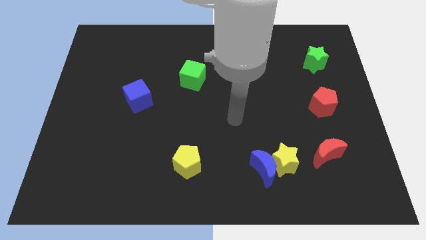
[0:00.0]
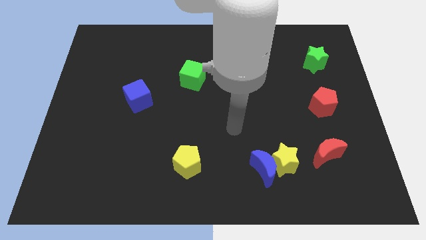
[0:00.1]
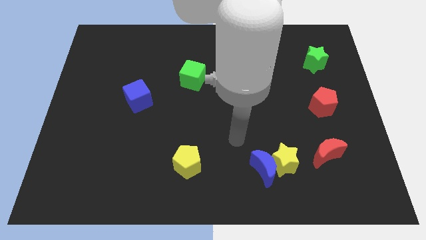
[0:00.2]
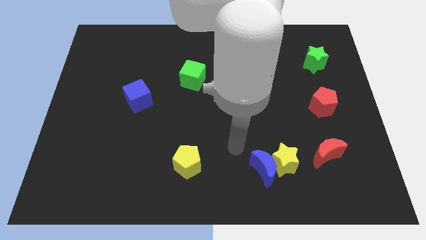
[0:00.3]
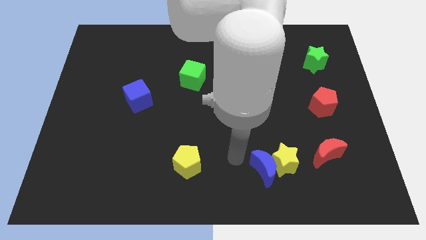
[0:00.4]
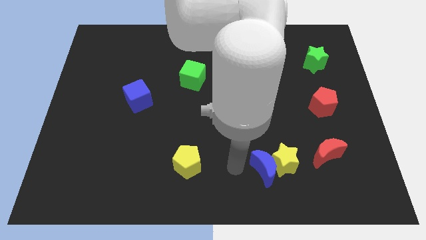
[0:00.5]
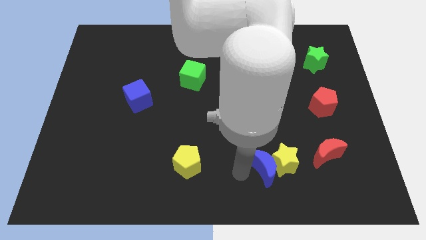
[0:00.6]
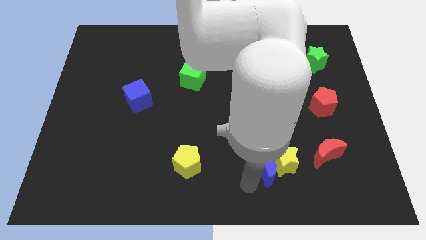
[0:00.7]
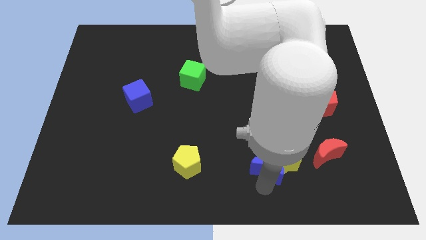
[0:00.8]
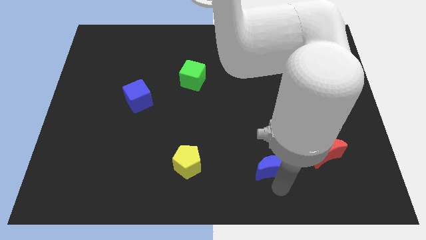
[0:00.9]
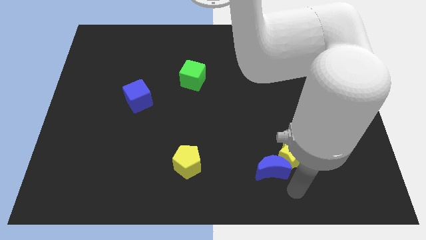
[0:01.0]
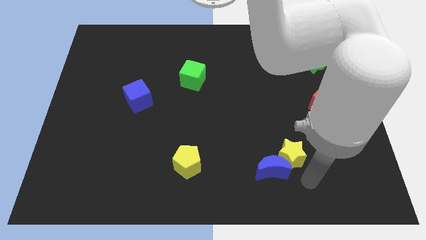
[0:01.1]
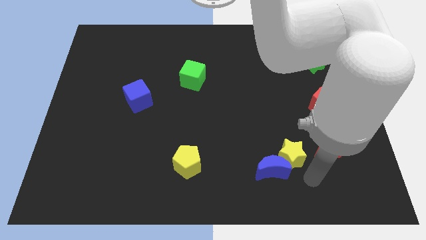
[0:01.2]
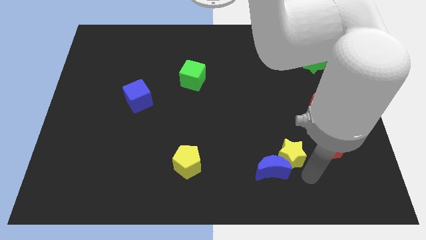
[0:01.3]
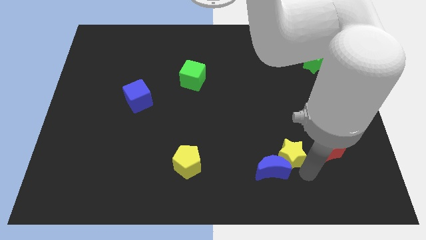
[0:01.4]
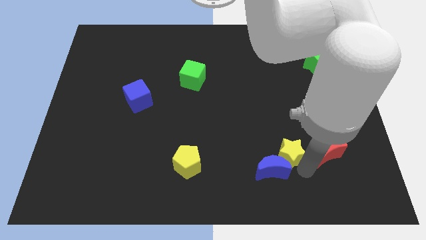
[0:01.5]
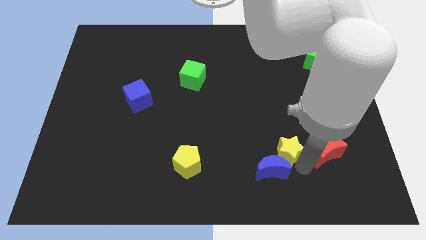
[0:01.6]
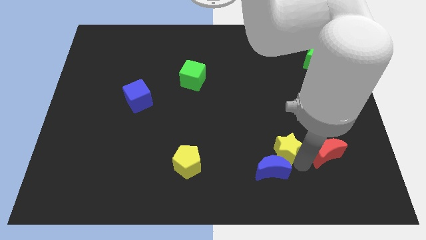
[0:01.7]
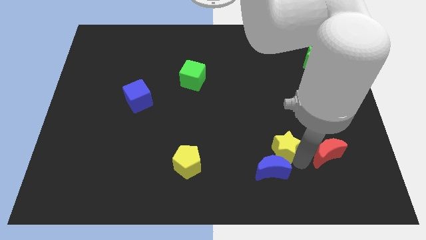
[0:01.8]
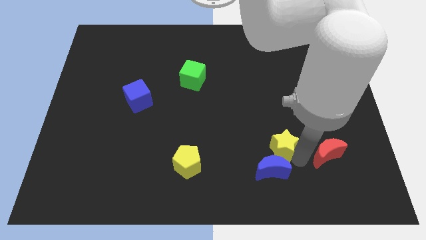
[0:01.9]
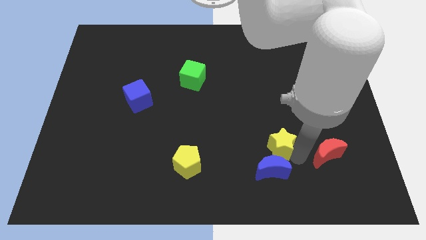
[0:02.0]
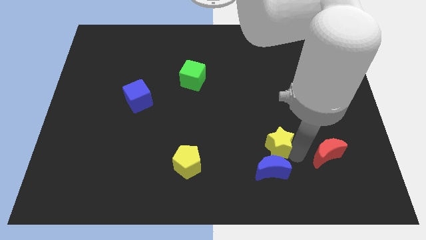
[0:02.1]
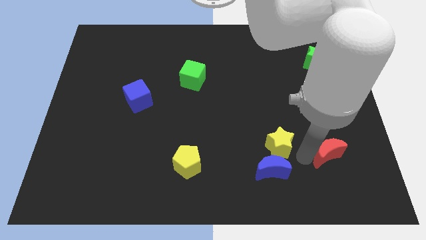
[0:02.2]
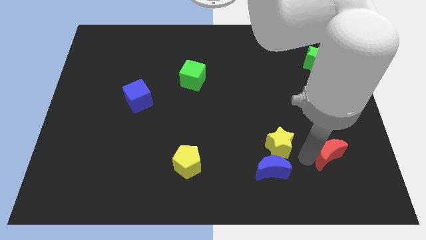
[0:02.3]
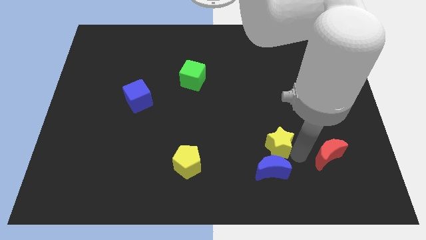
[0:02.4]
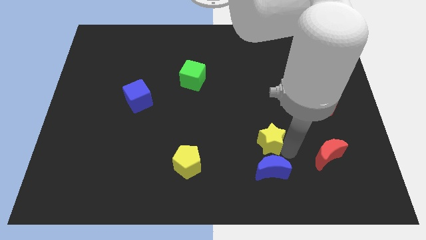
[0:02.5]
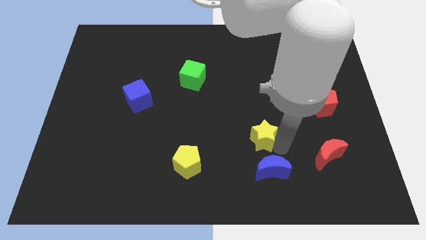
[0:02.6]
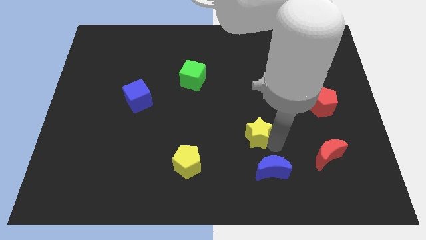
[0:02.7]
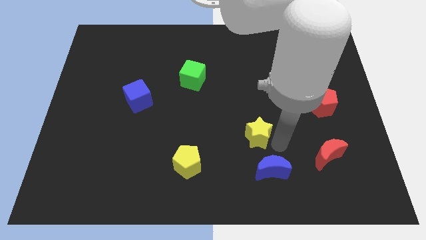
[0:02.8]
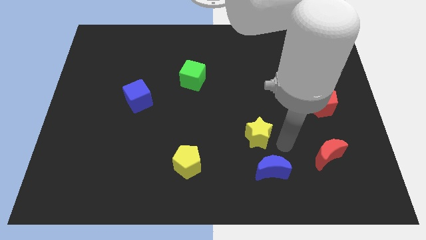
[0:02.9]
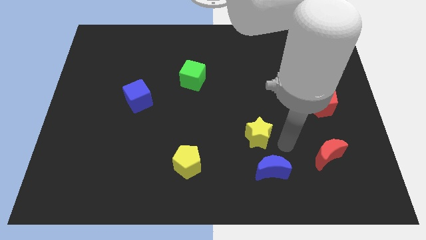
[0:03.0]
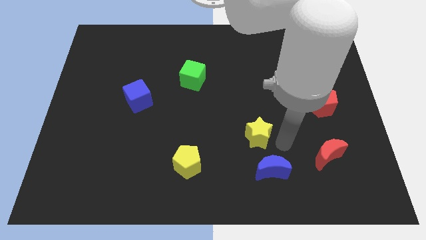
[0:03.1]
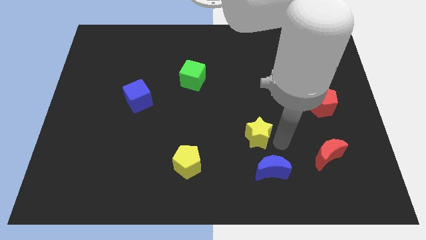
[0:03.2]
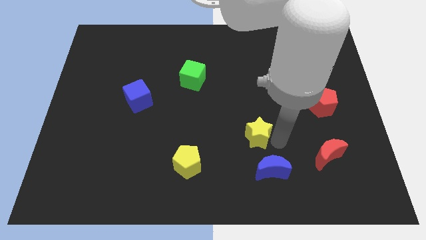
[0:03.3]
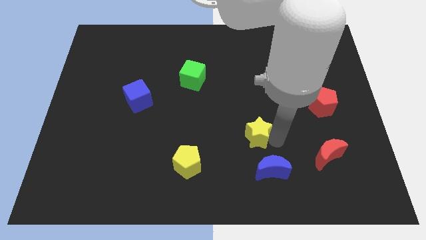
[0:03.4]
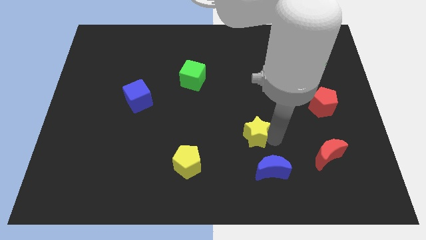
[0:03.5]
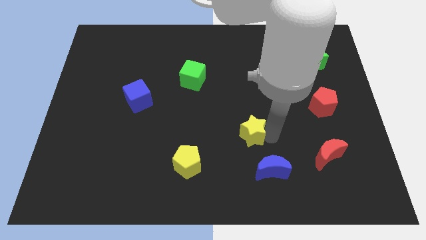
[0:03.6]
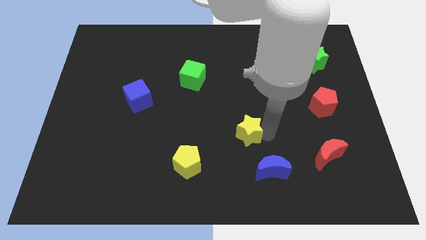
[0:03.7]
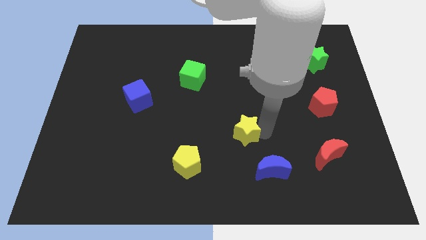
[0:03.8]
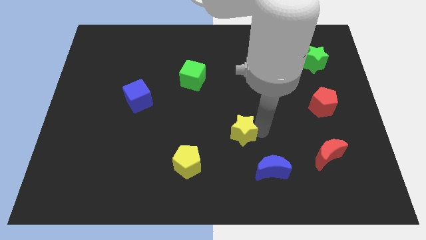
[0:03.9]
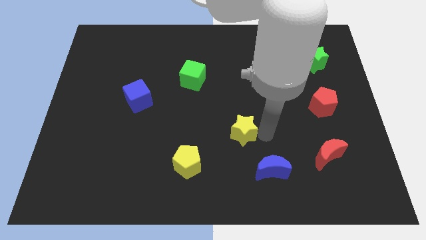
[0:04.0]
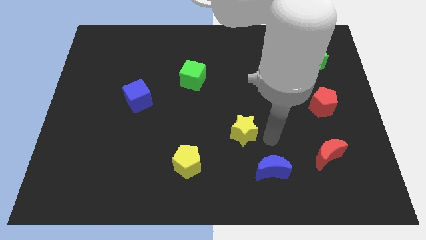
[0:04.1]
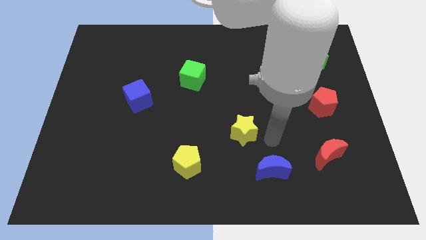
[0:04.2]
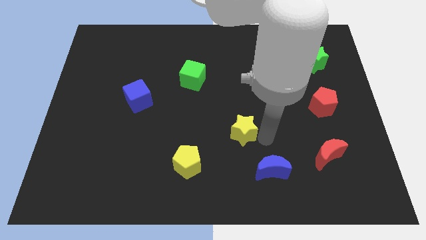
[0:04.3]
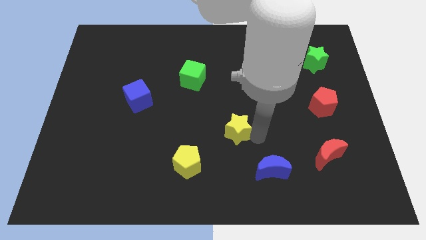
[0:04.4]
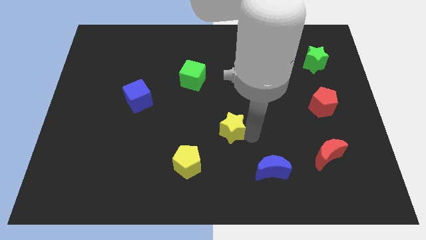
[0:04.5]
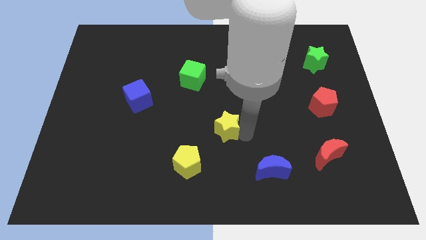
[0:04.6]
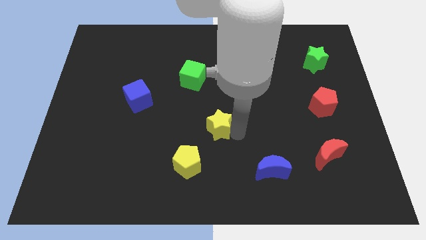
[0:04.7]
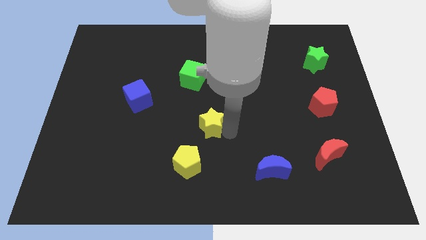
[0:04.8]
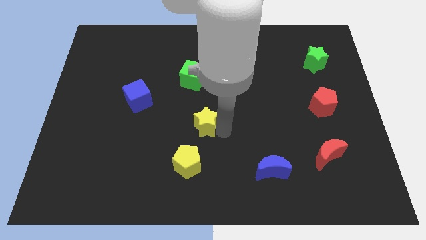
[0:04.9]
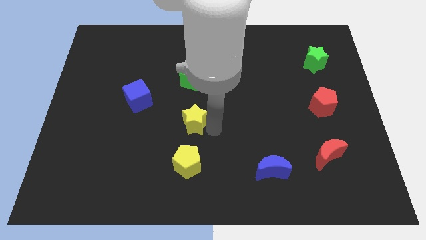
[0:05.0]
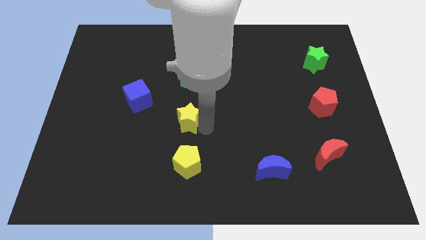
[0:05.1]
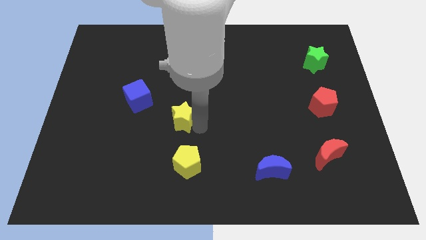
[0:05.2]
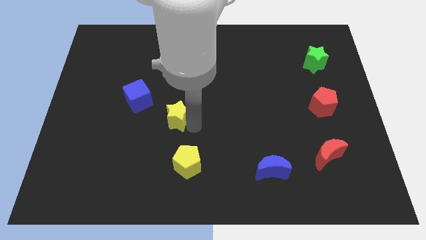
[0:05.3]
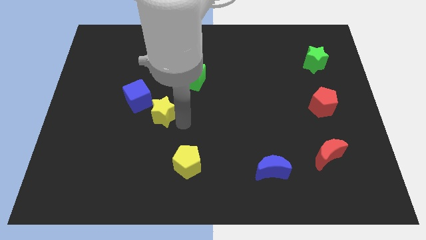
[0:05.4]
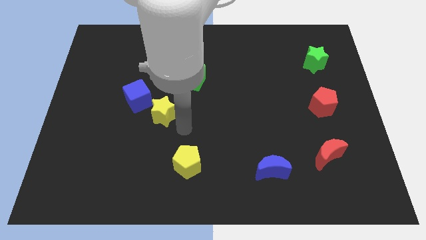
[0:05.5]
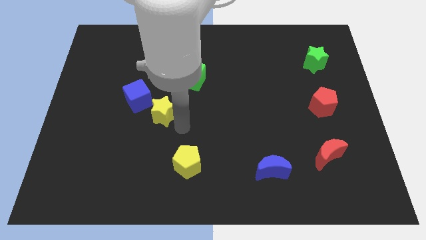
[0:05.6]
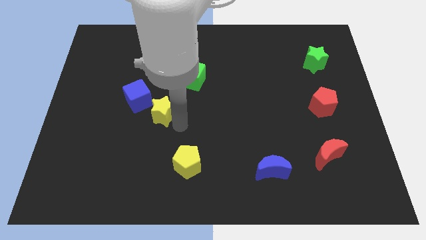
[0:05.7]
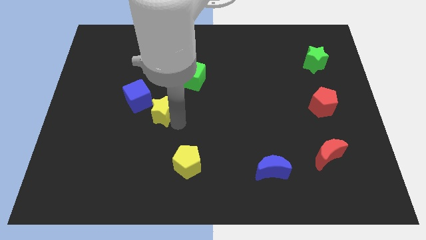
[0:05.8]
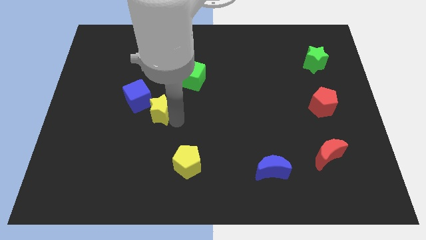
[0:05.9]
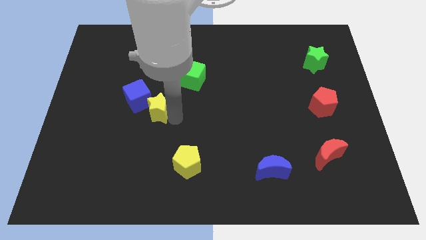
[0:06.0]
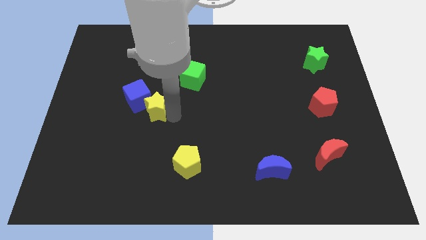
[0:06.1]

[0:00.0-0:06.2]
slide the yellow star towards the blue cube

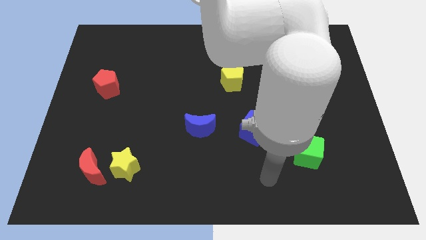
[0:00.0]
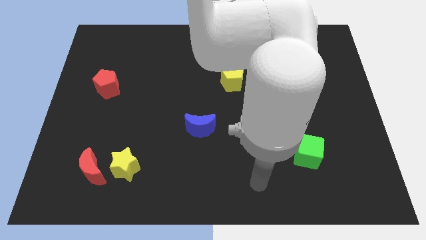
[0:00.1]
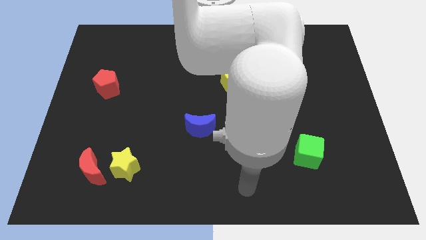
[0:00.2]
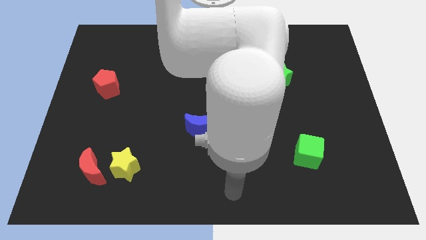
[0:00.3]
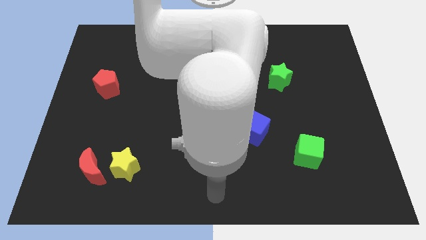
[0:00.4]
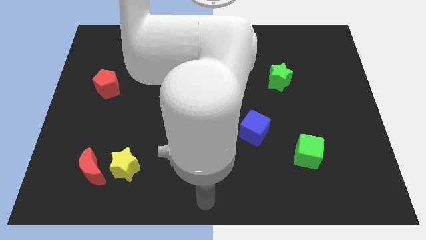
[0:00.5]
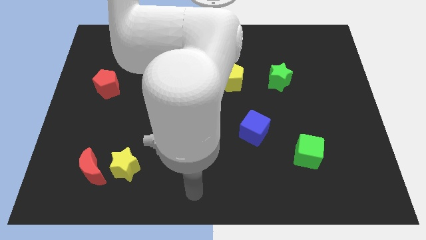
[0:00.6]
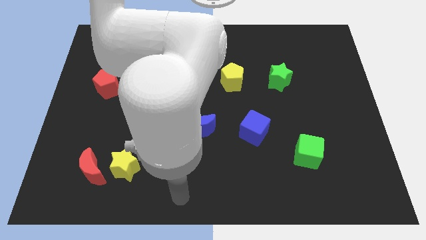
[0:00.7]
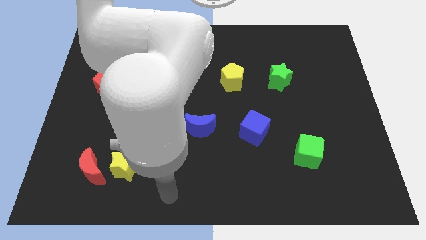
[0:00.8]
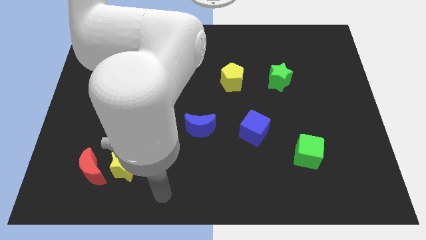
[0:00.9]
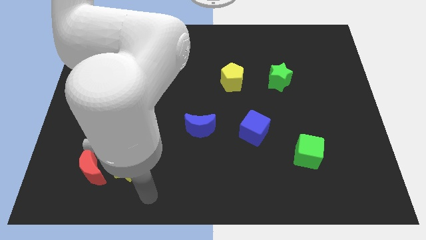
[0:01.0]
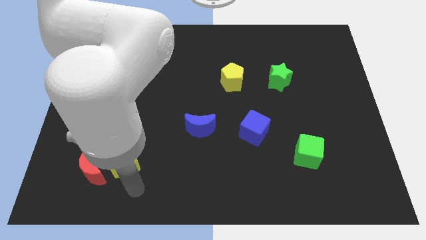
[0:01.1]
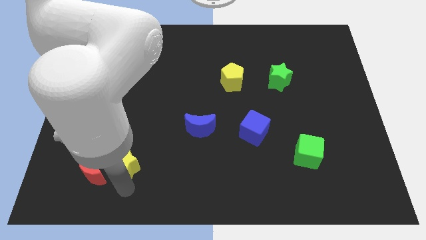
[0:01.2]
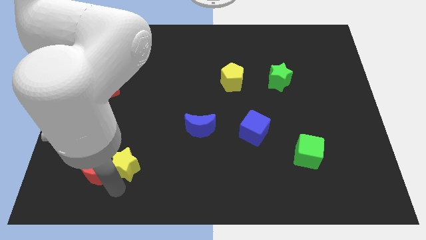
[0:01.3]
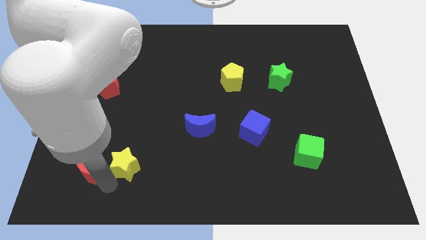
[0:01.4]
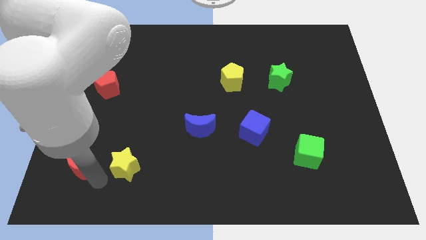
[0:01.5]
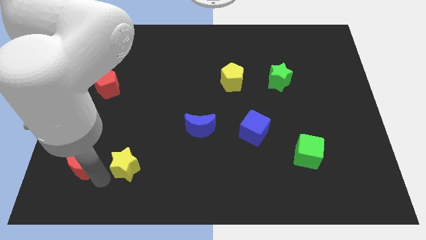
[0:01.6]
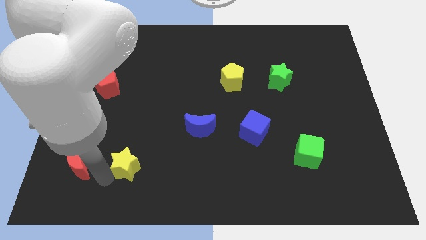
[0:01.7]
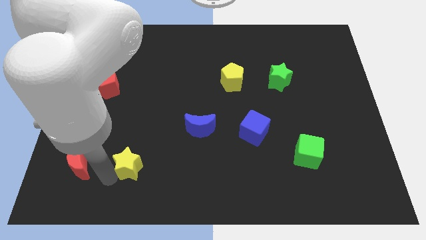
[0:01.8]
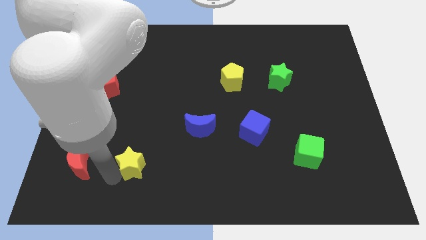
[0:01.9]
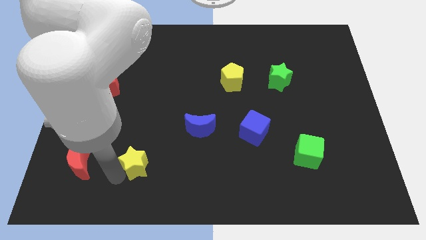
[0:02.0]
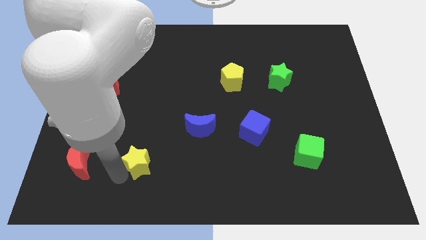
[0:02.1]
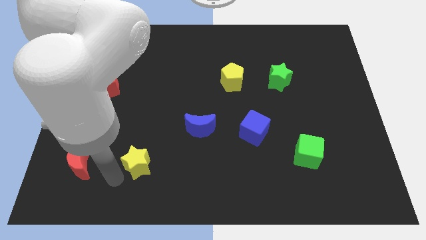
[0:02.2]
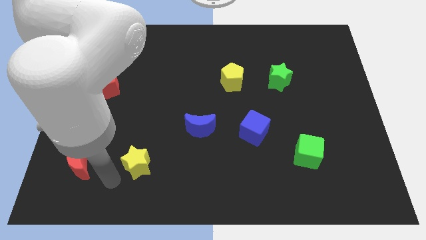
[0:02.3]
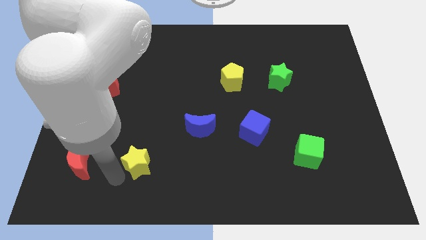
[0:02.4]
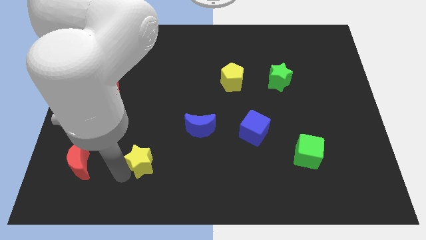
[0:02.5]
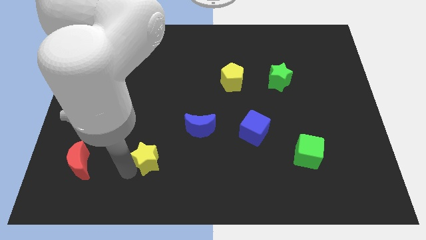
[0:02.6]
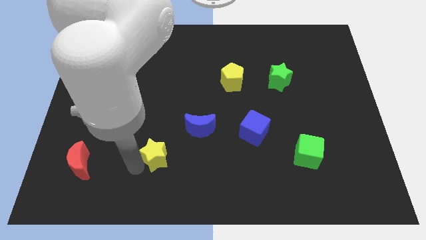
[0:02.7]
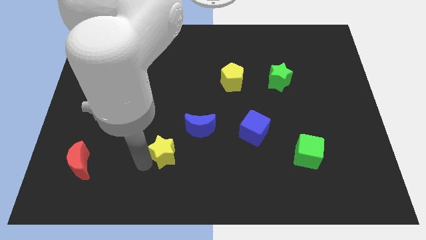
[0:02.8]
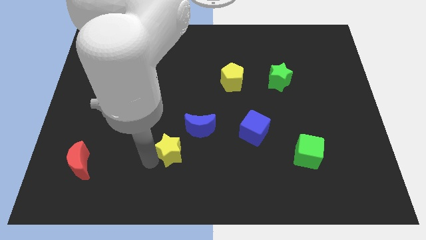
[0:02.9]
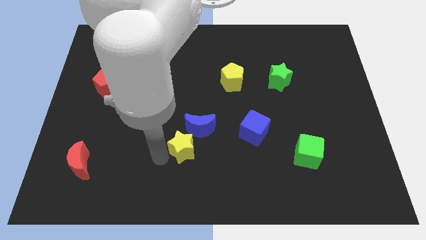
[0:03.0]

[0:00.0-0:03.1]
slide the yellow star towards the blue moon
